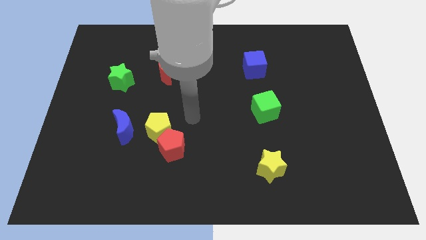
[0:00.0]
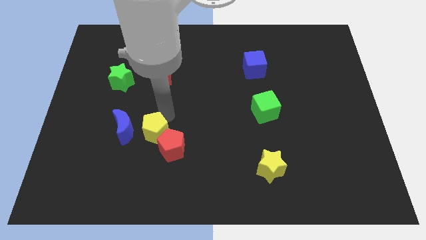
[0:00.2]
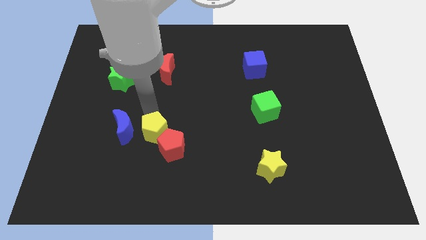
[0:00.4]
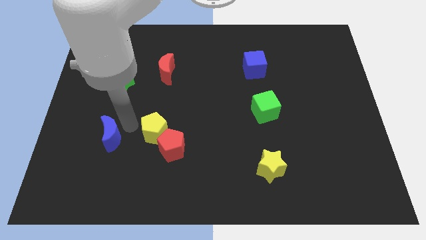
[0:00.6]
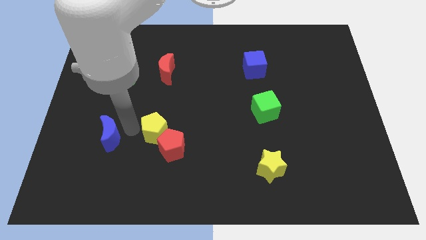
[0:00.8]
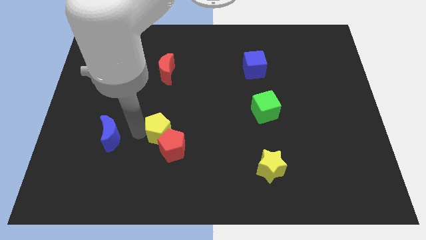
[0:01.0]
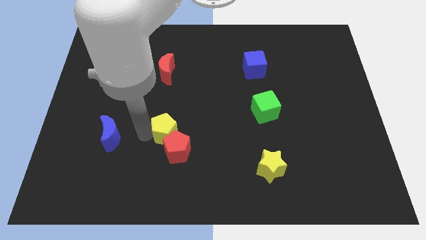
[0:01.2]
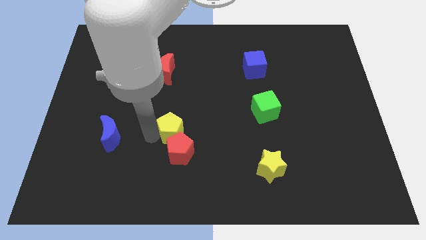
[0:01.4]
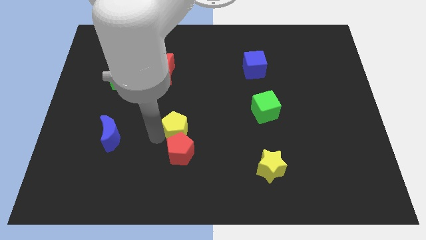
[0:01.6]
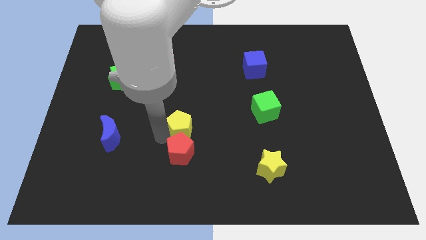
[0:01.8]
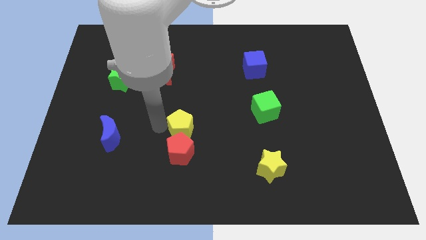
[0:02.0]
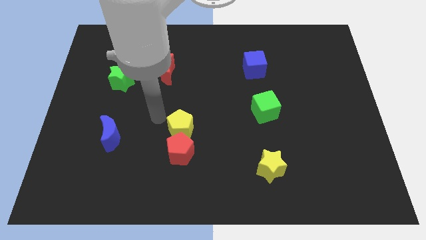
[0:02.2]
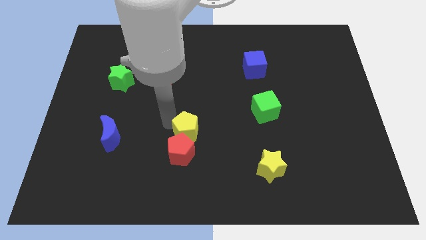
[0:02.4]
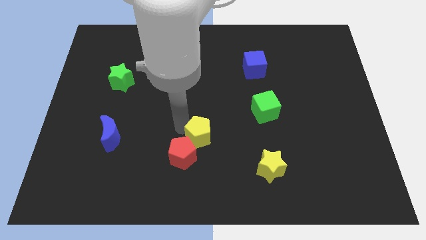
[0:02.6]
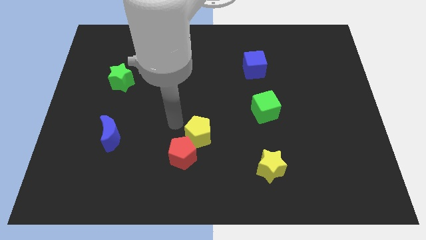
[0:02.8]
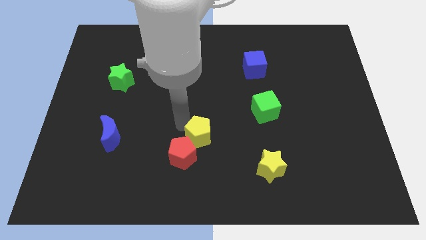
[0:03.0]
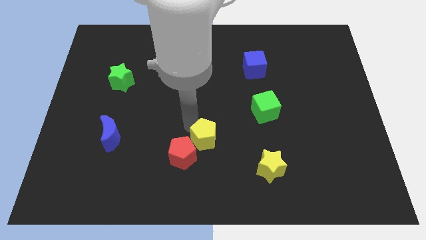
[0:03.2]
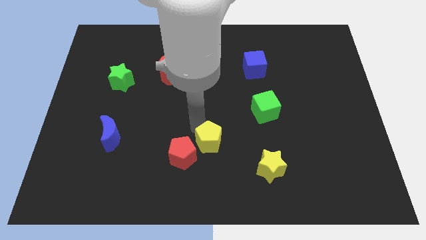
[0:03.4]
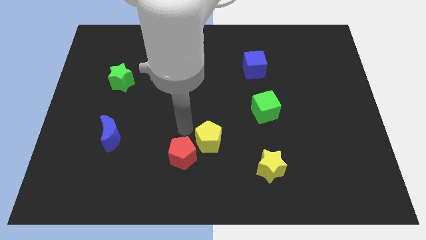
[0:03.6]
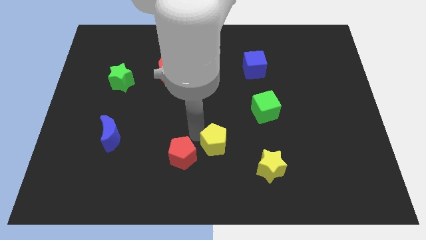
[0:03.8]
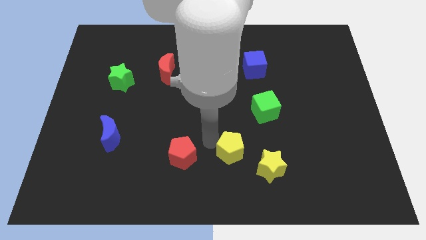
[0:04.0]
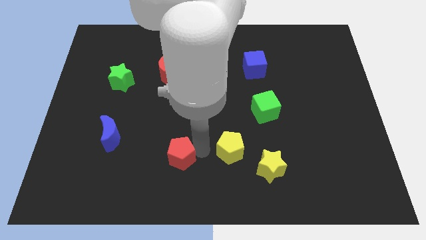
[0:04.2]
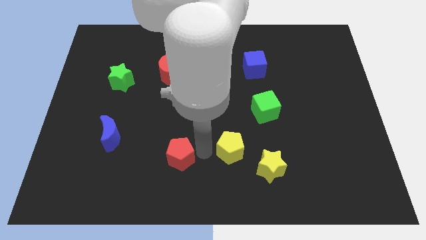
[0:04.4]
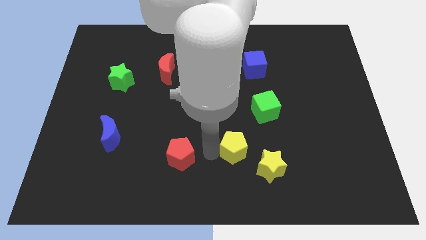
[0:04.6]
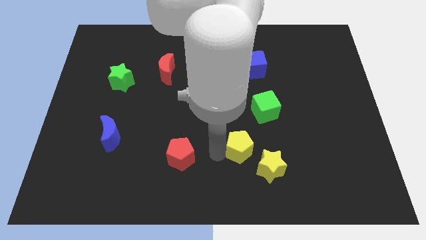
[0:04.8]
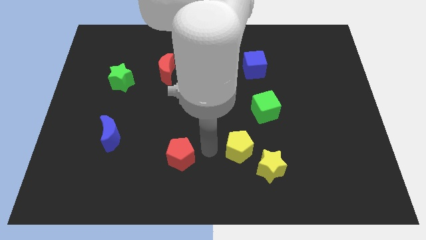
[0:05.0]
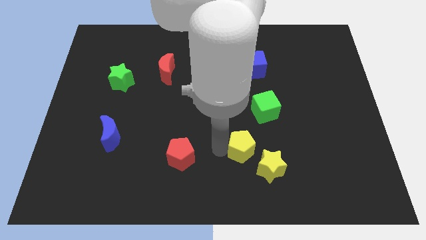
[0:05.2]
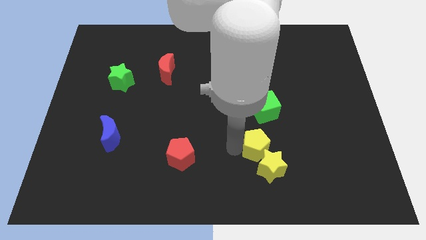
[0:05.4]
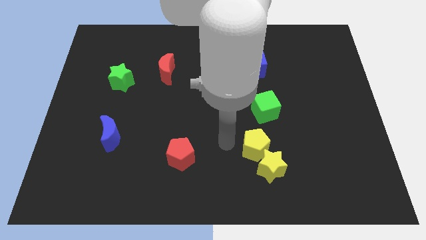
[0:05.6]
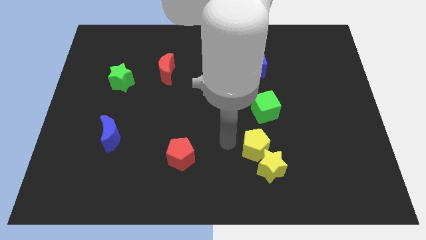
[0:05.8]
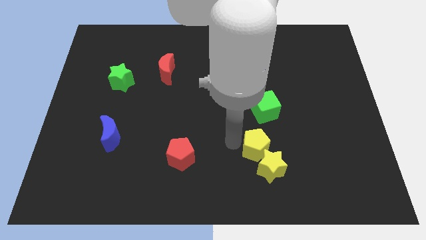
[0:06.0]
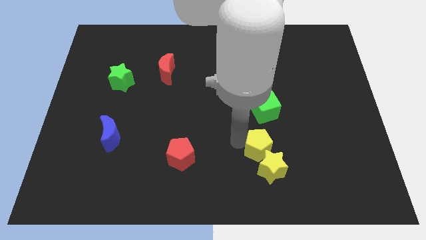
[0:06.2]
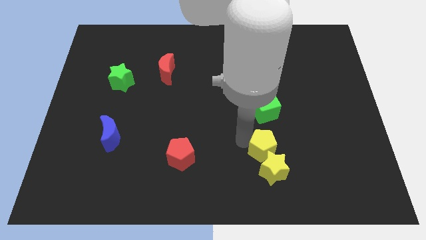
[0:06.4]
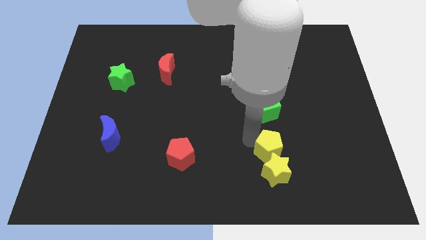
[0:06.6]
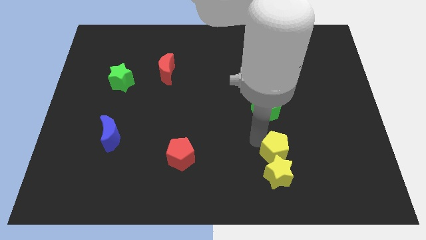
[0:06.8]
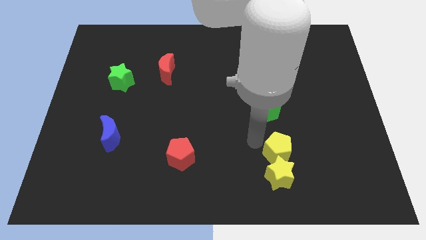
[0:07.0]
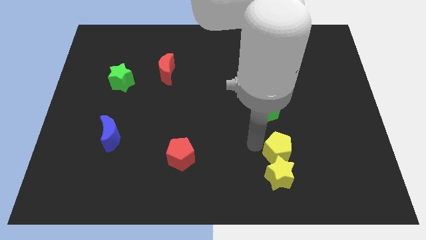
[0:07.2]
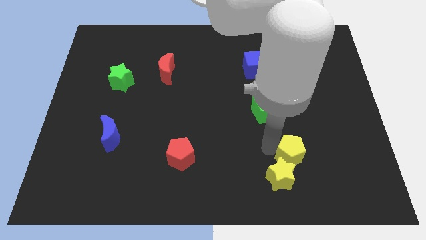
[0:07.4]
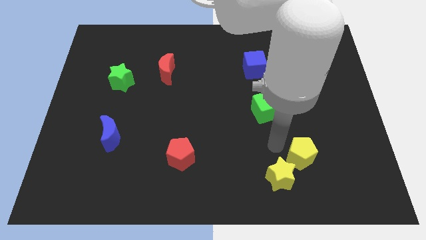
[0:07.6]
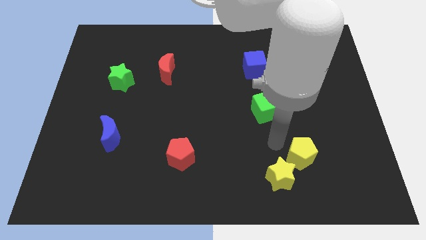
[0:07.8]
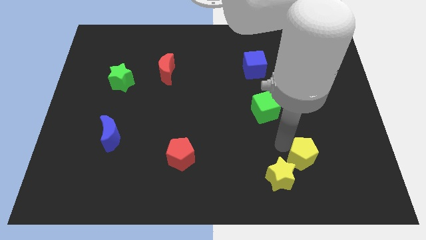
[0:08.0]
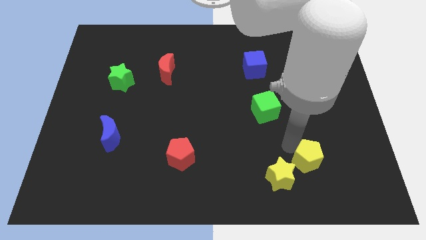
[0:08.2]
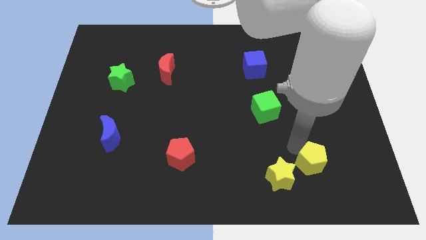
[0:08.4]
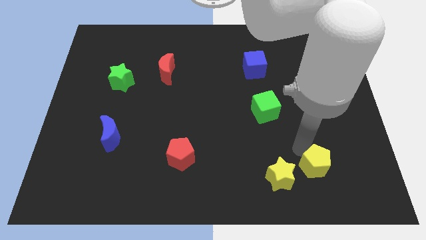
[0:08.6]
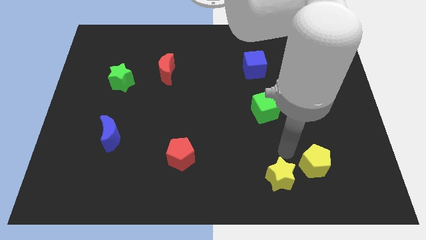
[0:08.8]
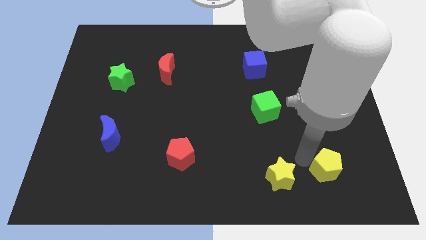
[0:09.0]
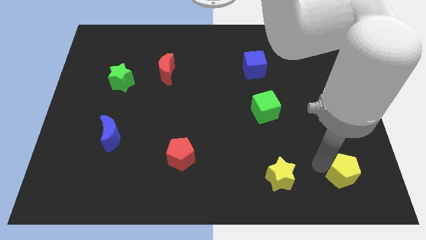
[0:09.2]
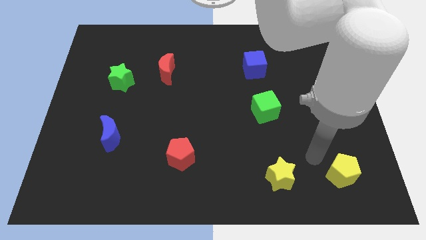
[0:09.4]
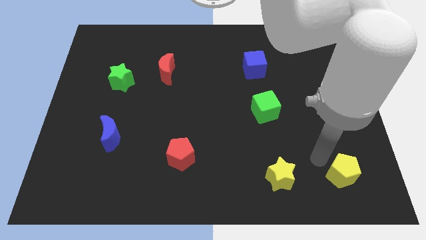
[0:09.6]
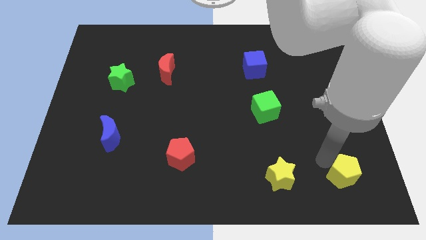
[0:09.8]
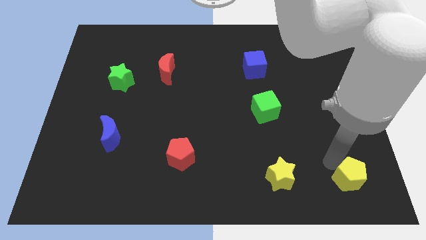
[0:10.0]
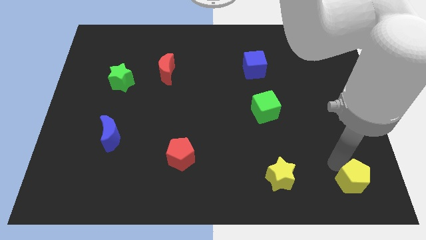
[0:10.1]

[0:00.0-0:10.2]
push the yellow pentagon to the bottom right of the board

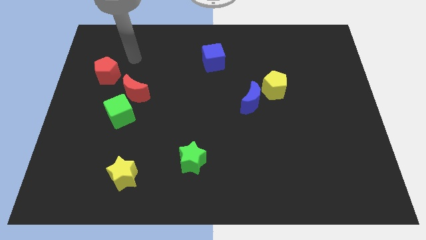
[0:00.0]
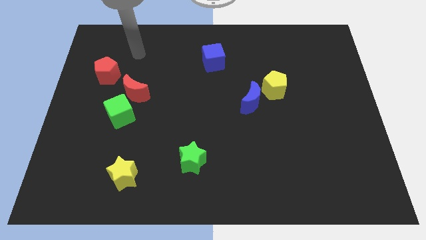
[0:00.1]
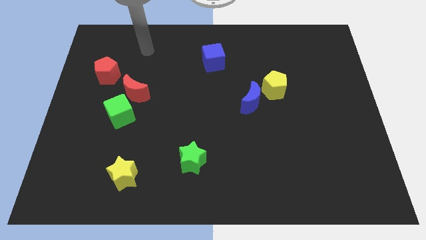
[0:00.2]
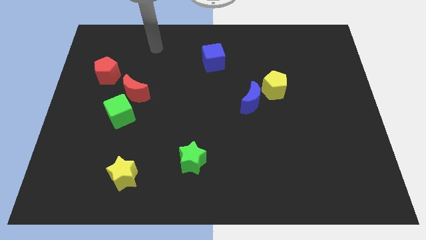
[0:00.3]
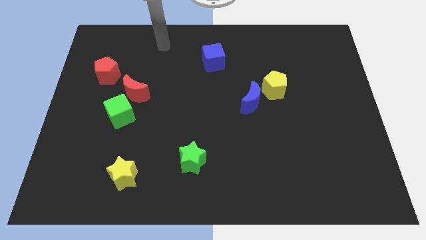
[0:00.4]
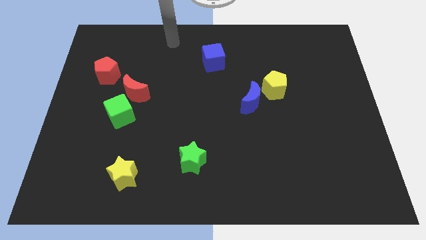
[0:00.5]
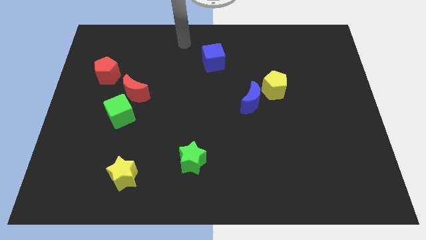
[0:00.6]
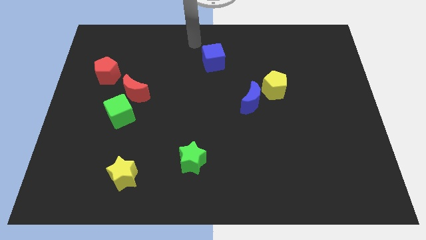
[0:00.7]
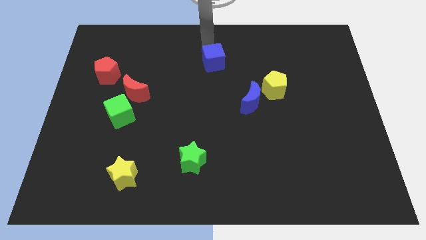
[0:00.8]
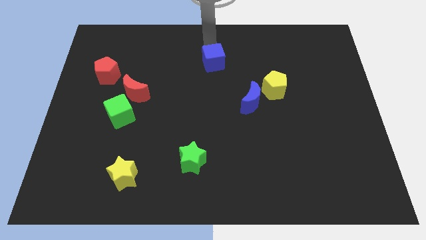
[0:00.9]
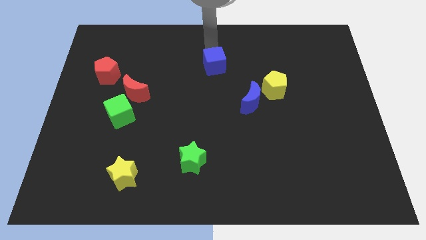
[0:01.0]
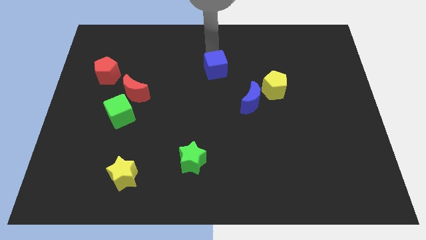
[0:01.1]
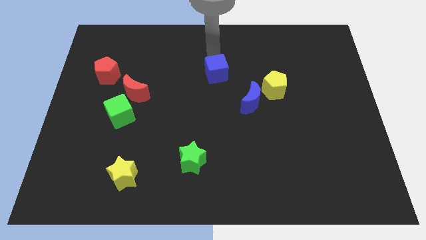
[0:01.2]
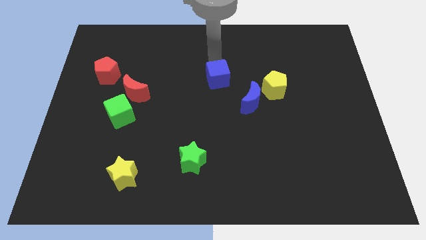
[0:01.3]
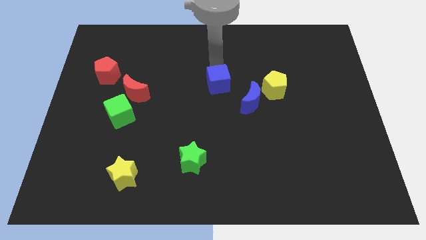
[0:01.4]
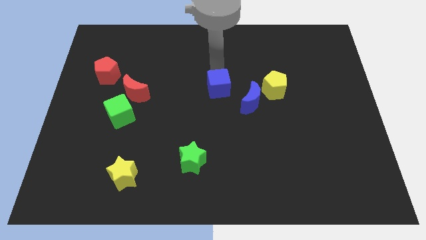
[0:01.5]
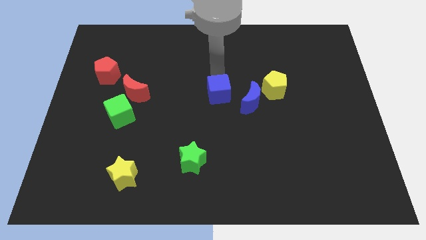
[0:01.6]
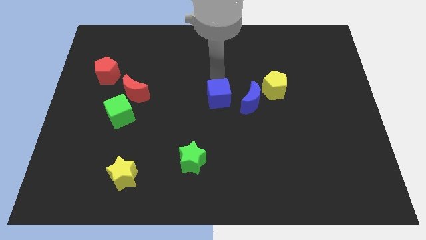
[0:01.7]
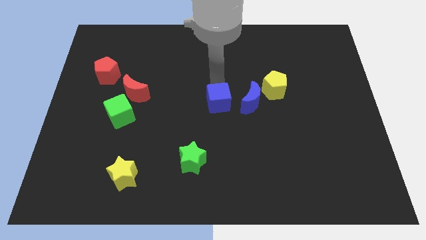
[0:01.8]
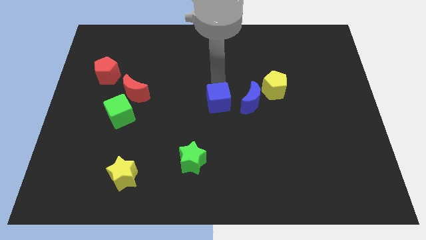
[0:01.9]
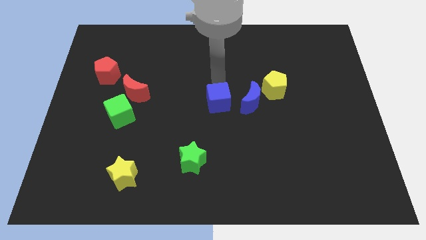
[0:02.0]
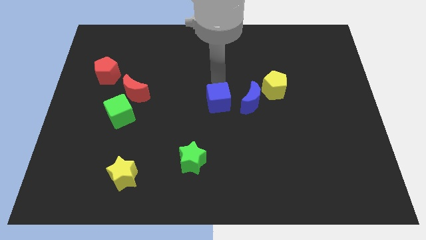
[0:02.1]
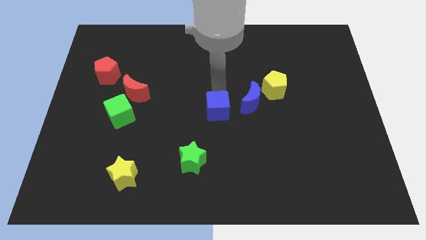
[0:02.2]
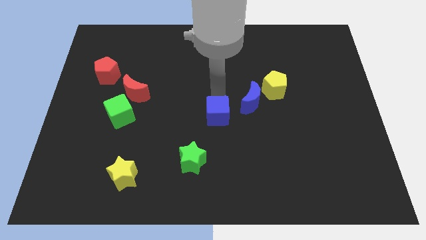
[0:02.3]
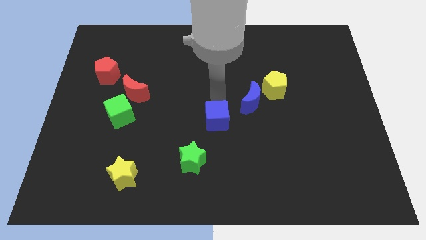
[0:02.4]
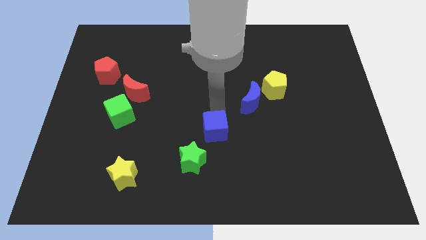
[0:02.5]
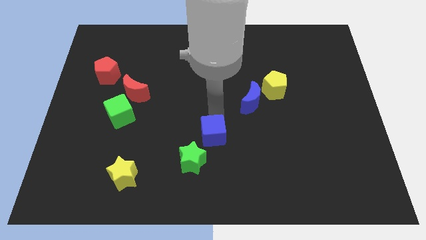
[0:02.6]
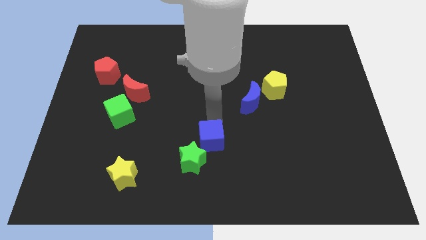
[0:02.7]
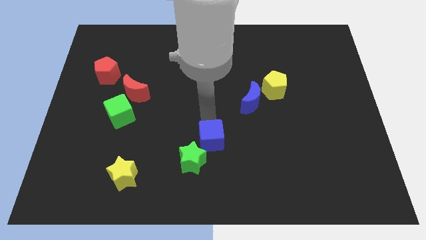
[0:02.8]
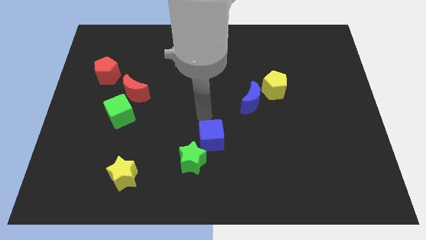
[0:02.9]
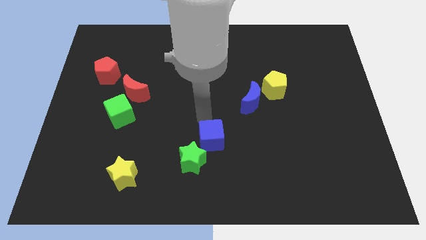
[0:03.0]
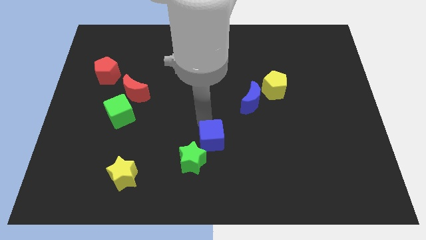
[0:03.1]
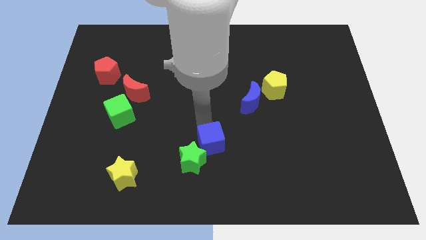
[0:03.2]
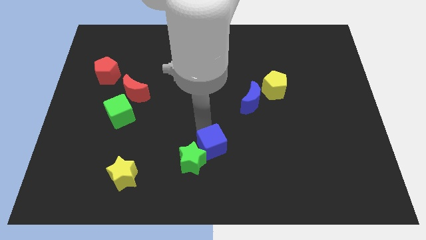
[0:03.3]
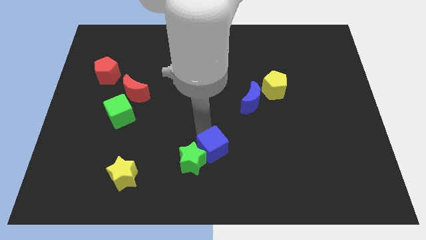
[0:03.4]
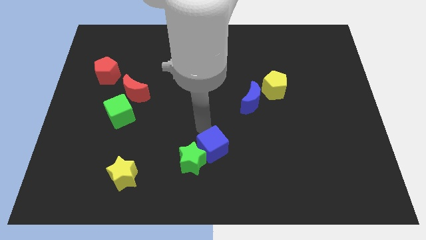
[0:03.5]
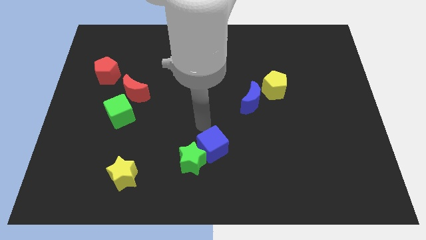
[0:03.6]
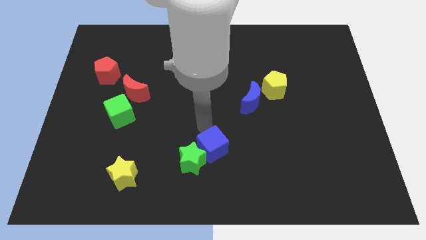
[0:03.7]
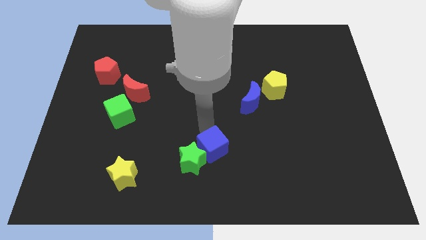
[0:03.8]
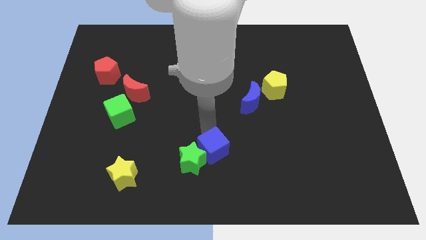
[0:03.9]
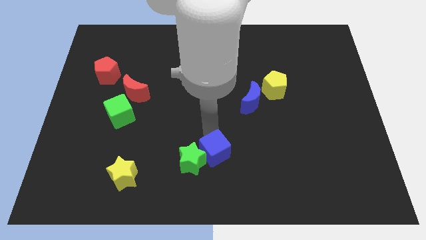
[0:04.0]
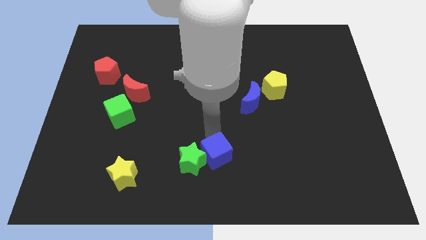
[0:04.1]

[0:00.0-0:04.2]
move the blue cube to the bottom side
